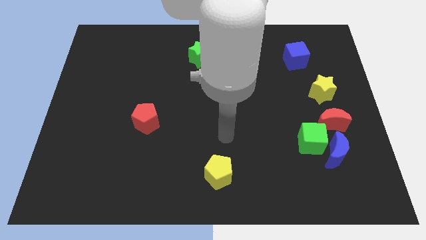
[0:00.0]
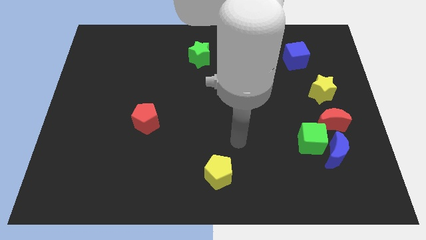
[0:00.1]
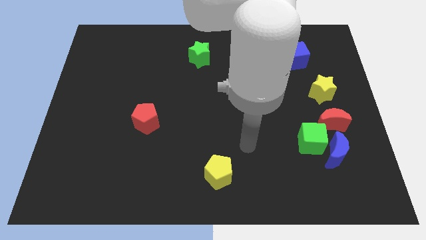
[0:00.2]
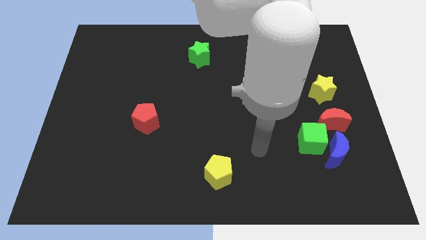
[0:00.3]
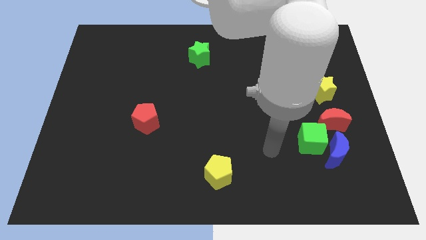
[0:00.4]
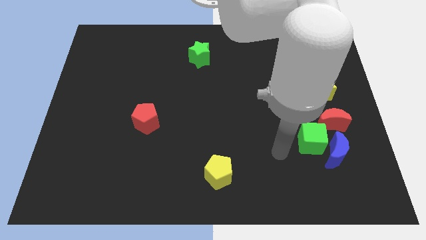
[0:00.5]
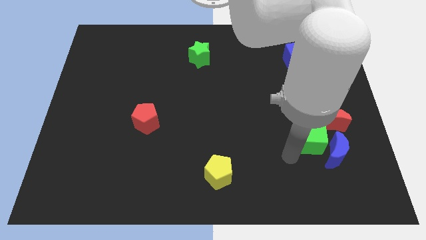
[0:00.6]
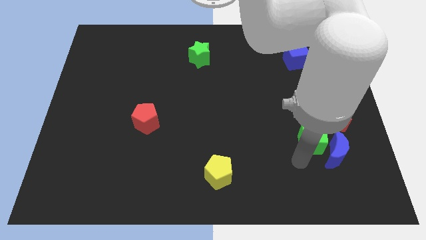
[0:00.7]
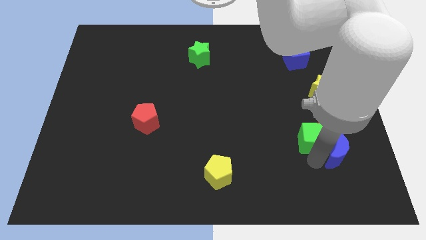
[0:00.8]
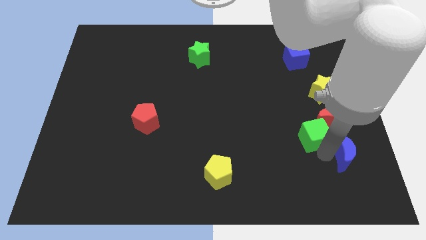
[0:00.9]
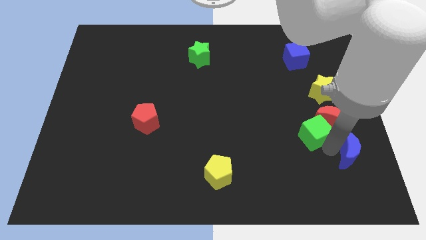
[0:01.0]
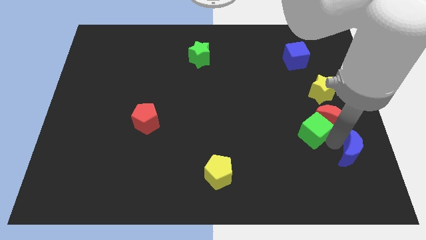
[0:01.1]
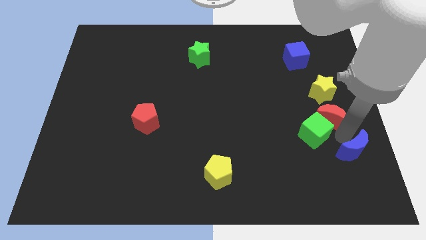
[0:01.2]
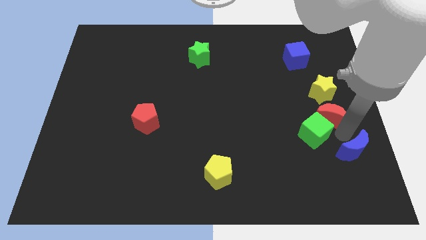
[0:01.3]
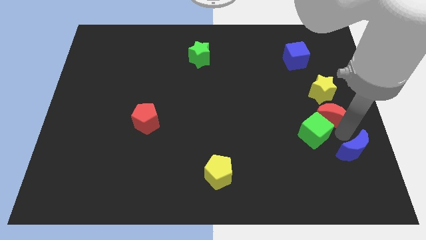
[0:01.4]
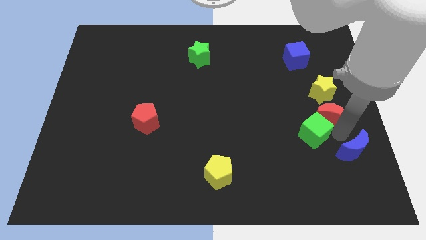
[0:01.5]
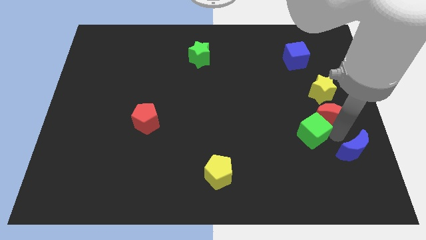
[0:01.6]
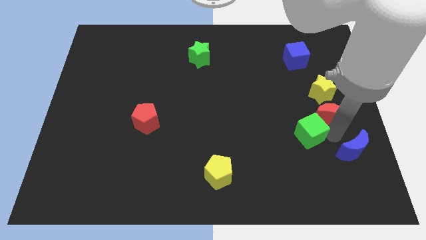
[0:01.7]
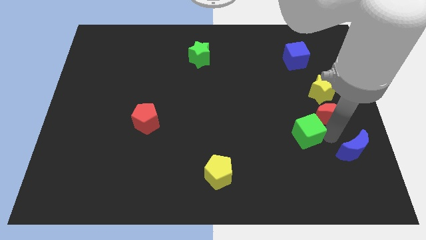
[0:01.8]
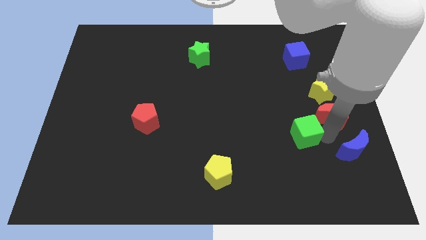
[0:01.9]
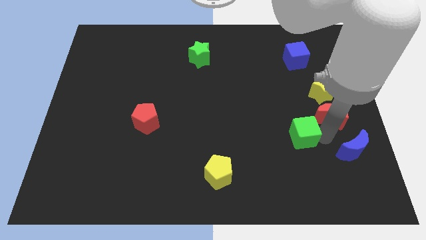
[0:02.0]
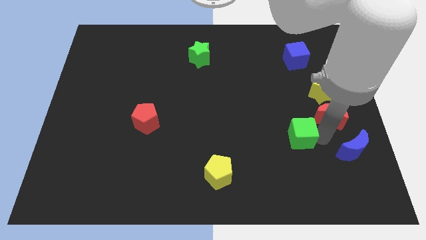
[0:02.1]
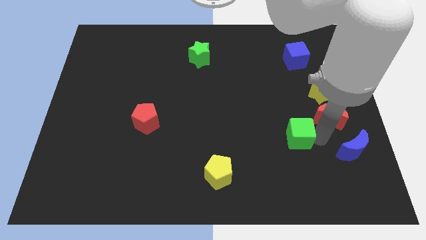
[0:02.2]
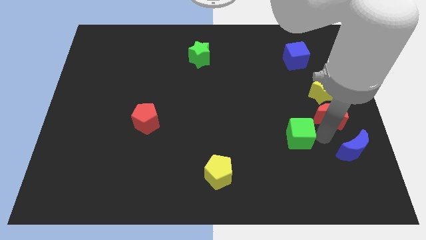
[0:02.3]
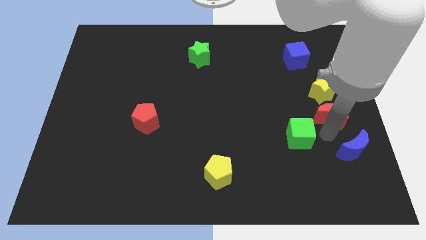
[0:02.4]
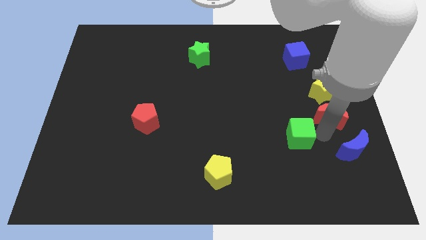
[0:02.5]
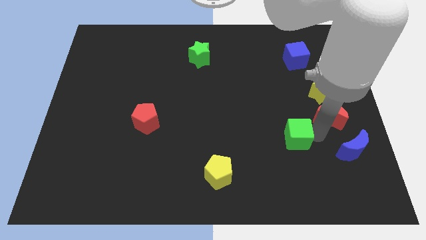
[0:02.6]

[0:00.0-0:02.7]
separate the green cube from the blue moon and red moon

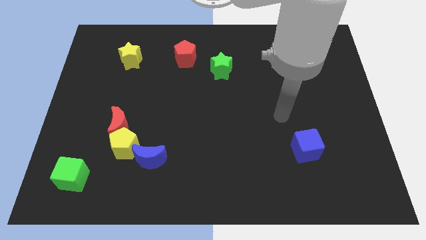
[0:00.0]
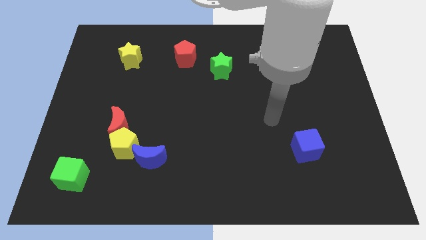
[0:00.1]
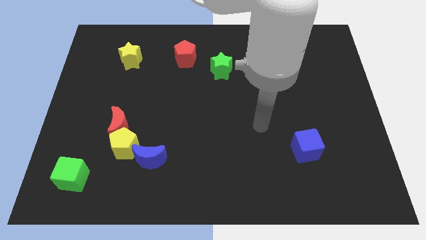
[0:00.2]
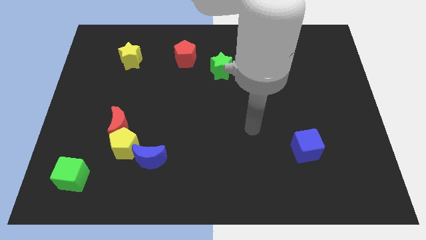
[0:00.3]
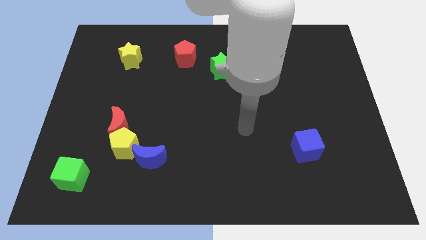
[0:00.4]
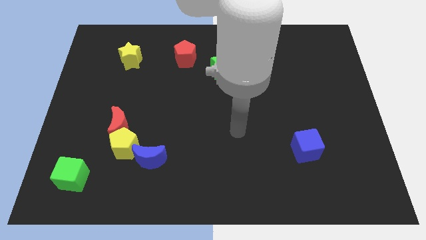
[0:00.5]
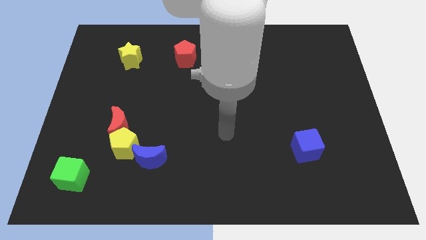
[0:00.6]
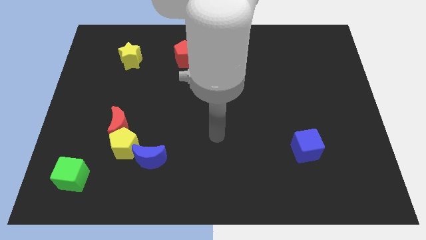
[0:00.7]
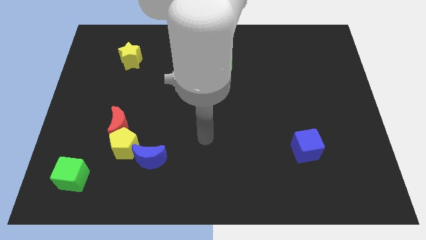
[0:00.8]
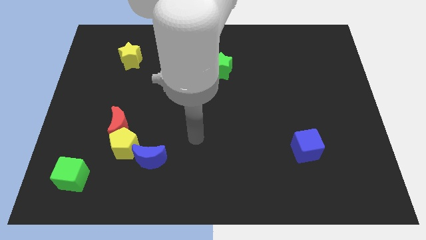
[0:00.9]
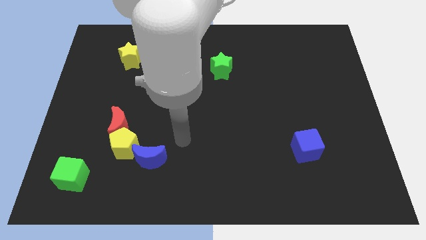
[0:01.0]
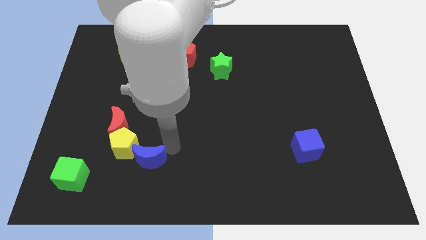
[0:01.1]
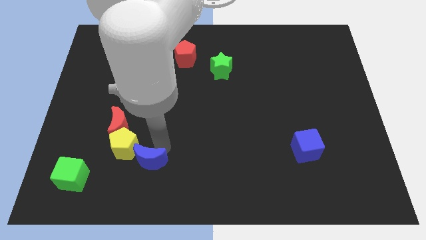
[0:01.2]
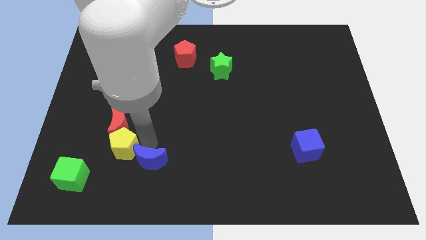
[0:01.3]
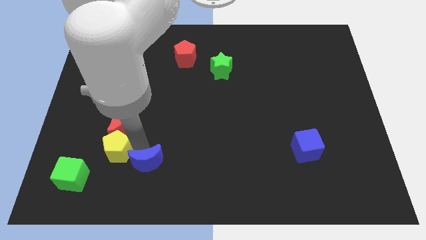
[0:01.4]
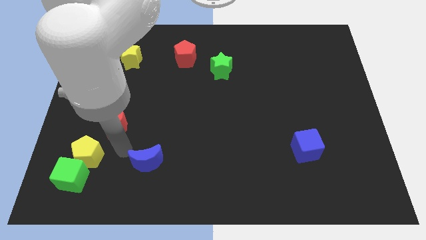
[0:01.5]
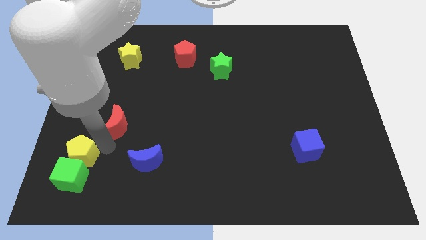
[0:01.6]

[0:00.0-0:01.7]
separate the red moon from the yellow pentagon

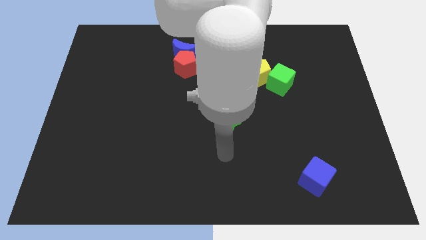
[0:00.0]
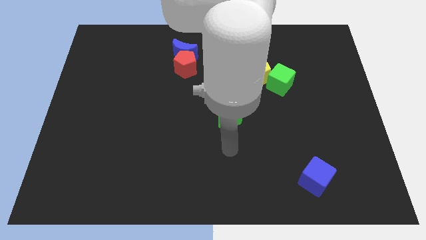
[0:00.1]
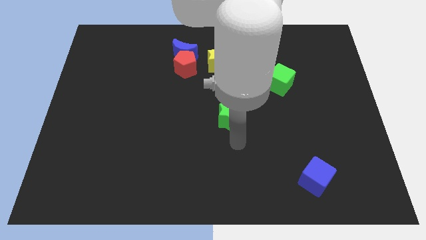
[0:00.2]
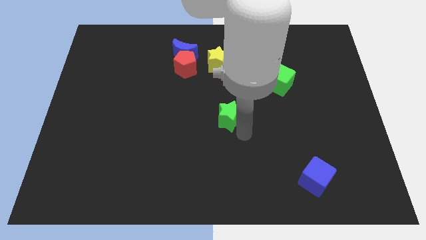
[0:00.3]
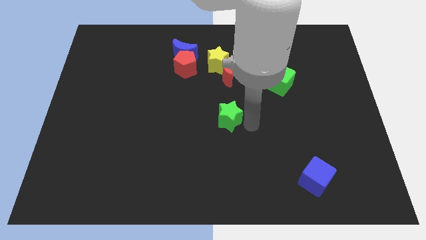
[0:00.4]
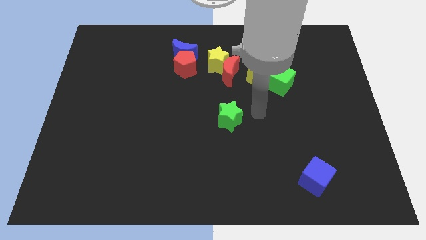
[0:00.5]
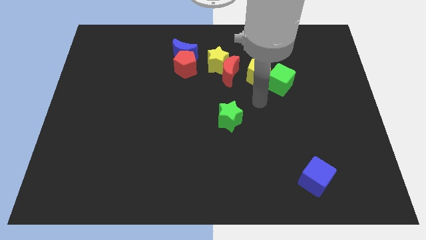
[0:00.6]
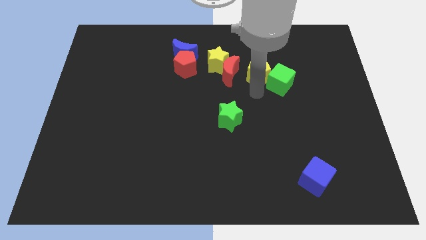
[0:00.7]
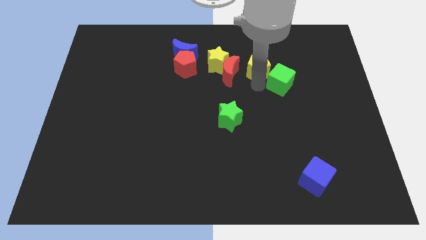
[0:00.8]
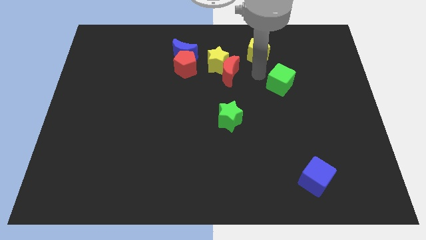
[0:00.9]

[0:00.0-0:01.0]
separate the green cube from the yellow pentagon

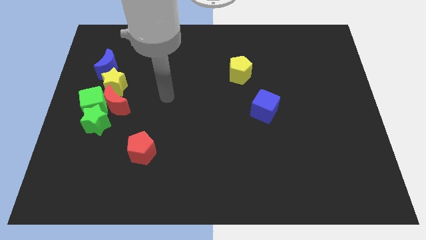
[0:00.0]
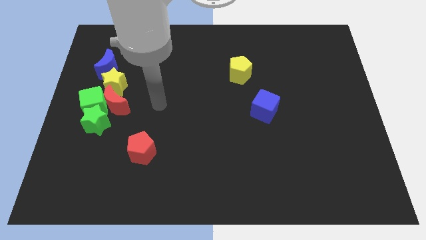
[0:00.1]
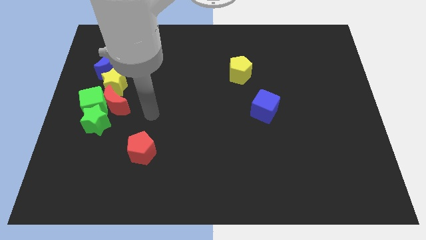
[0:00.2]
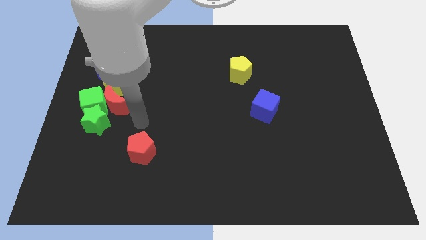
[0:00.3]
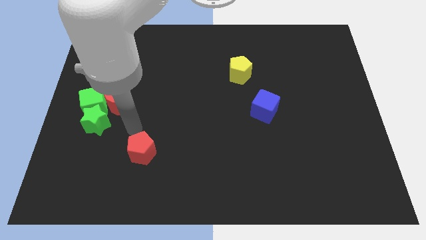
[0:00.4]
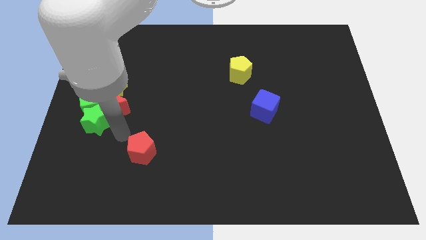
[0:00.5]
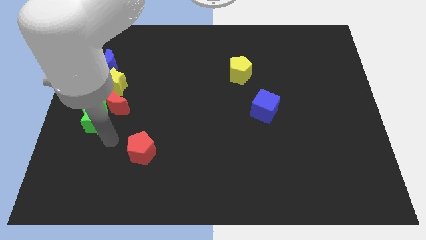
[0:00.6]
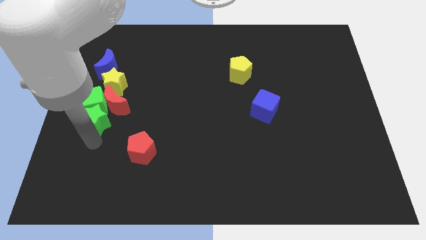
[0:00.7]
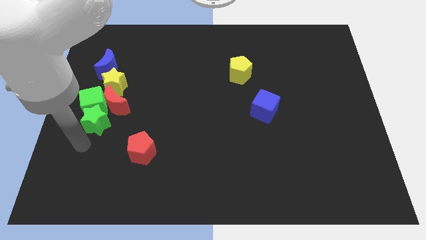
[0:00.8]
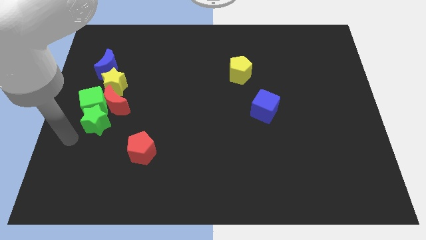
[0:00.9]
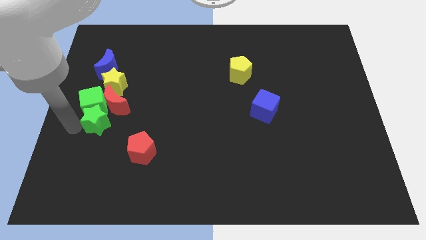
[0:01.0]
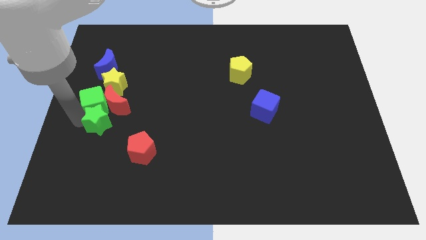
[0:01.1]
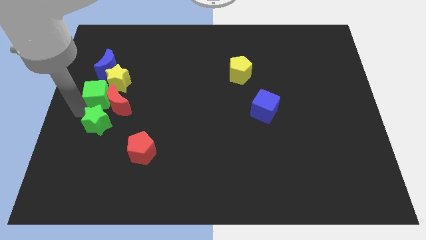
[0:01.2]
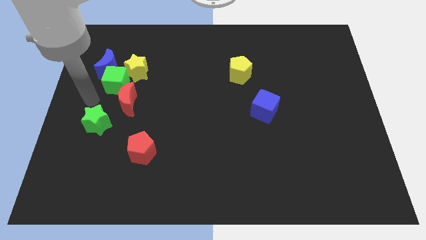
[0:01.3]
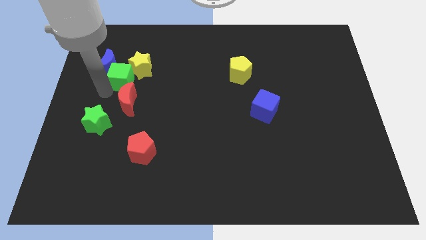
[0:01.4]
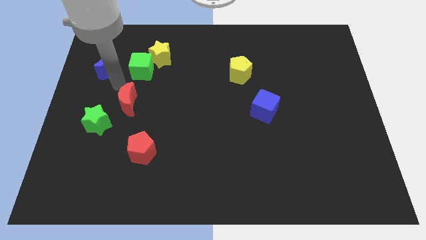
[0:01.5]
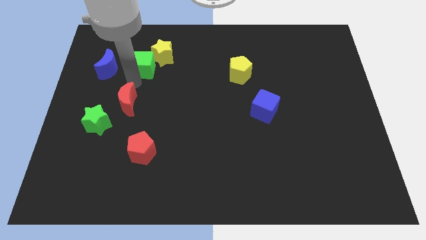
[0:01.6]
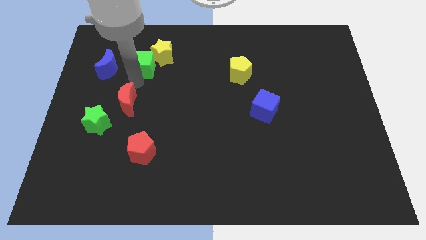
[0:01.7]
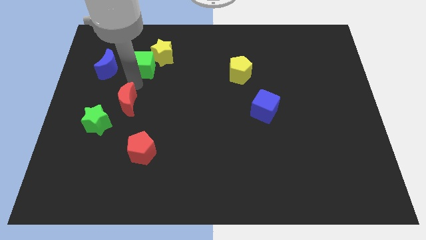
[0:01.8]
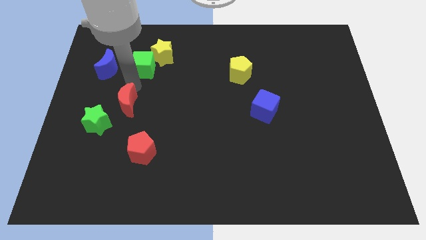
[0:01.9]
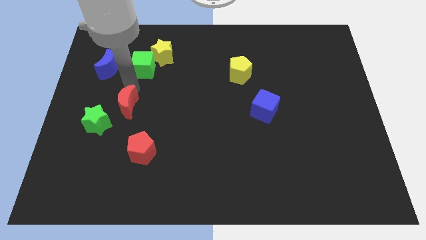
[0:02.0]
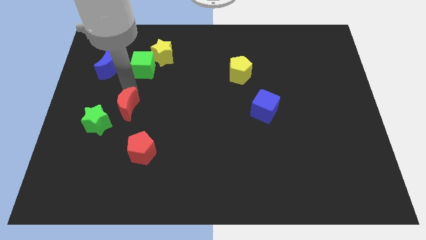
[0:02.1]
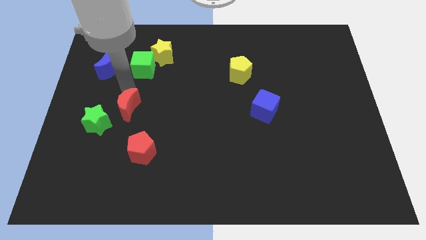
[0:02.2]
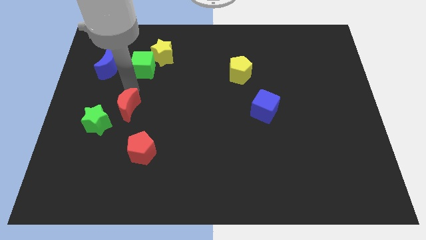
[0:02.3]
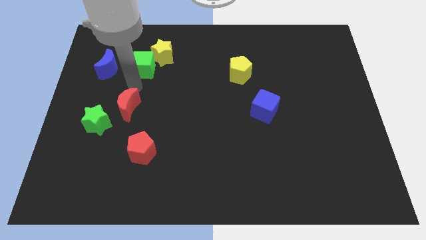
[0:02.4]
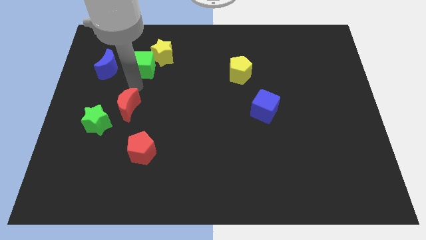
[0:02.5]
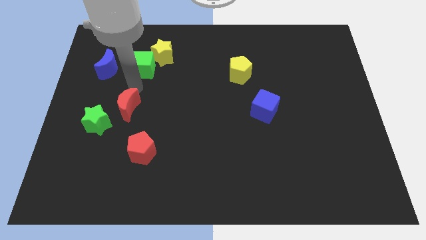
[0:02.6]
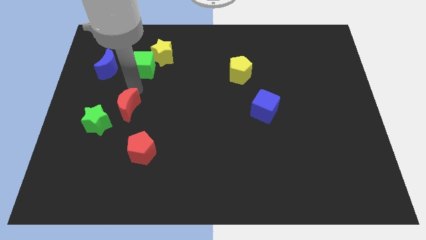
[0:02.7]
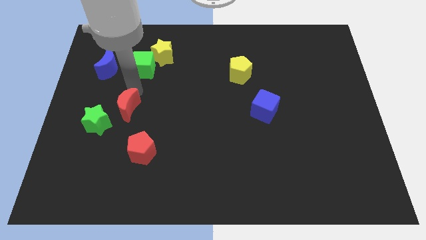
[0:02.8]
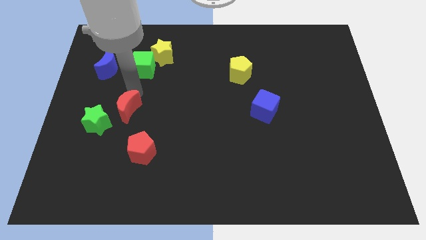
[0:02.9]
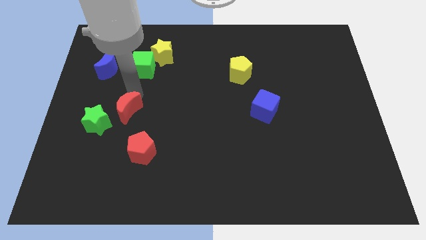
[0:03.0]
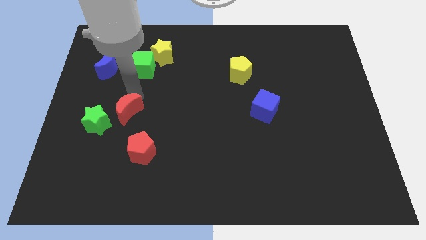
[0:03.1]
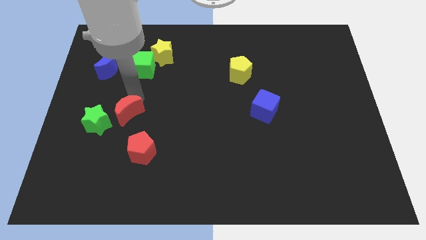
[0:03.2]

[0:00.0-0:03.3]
pull the red moon apart from the green cube, yellow star, and green star

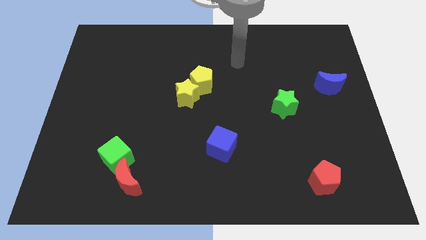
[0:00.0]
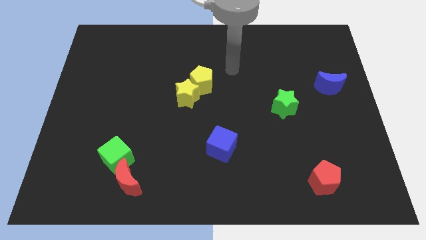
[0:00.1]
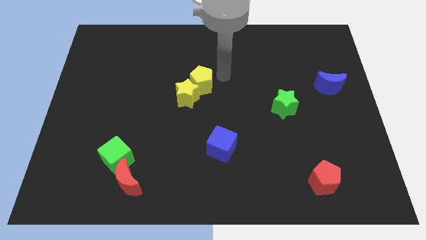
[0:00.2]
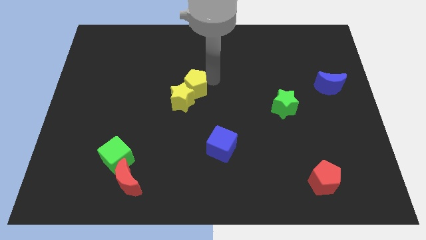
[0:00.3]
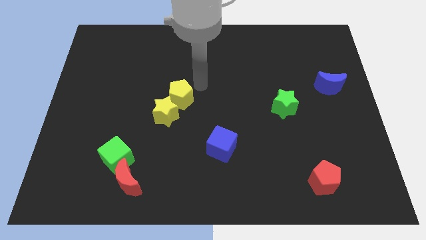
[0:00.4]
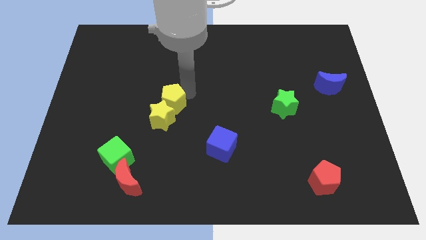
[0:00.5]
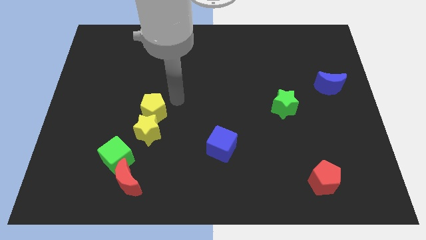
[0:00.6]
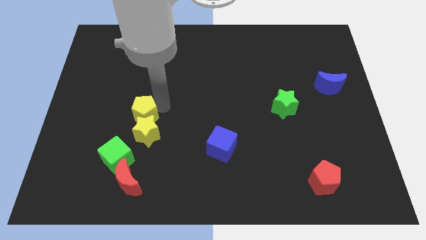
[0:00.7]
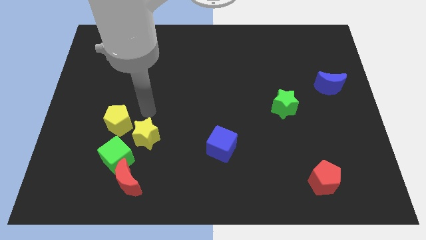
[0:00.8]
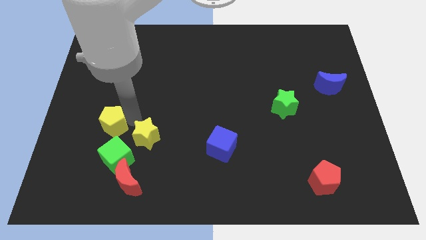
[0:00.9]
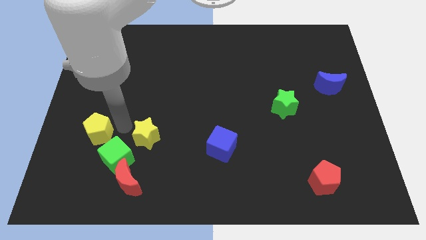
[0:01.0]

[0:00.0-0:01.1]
move the yellow star away from the yellow pentagon
